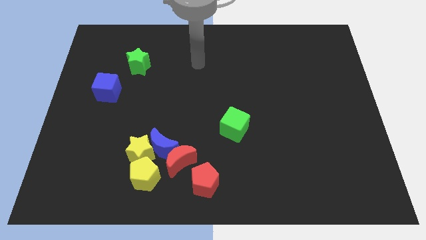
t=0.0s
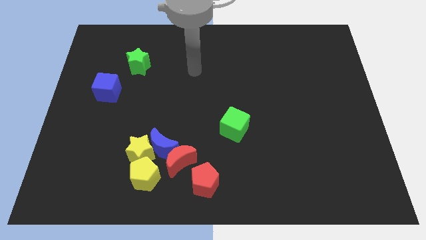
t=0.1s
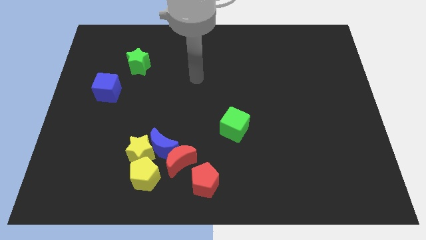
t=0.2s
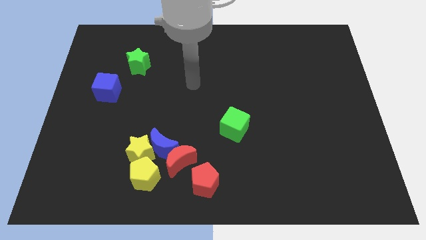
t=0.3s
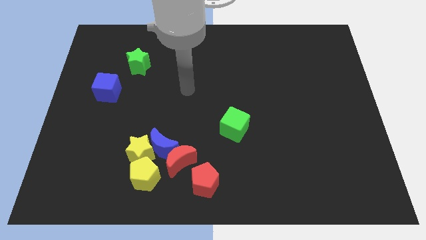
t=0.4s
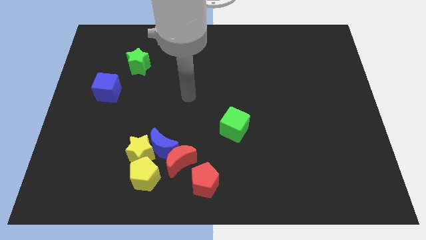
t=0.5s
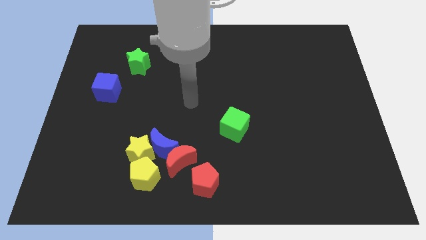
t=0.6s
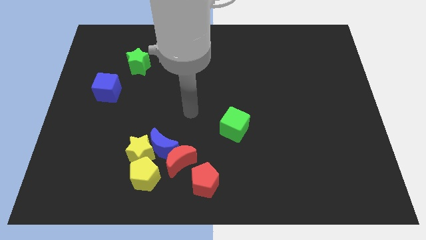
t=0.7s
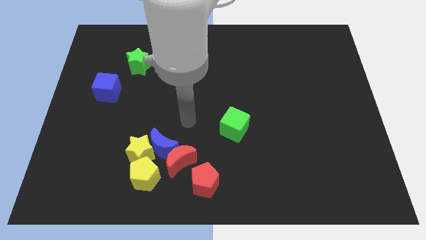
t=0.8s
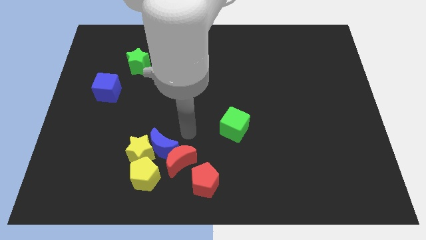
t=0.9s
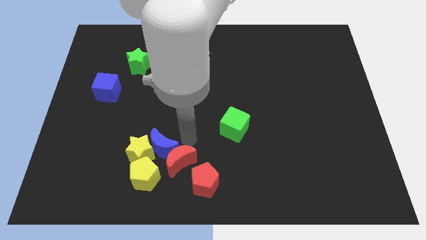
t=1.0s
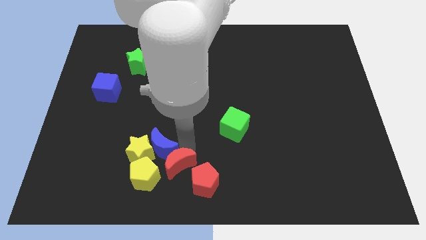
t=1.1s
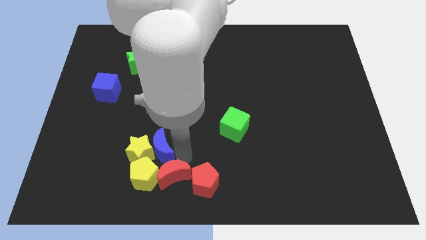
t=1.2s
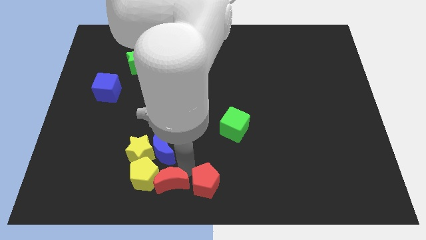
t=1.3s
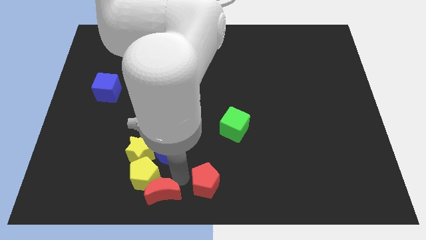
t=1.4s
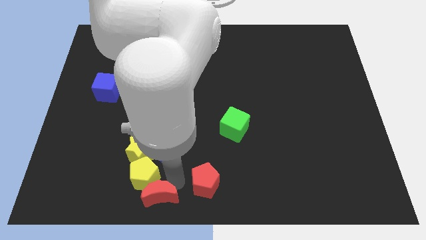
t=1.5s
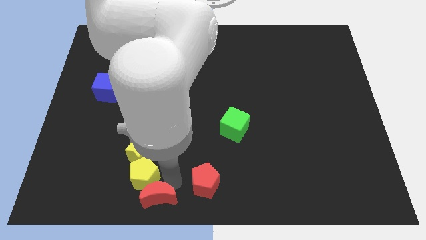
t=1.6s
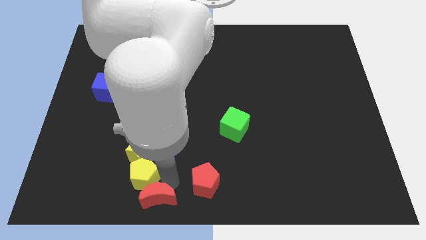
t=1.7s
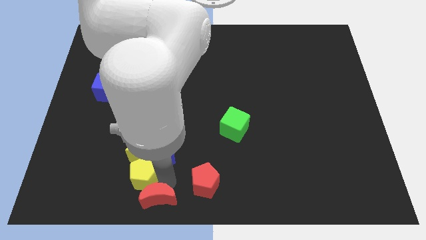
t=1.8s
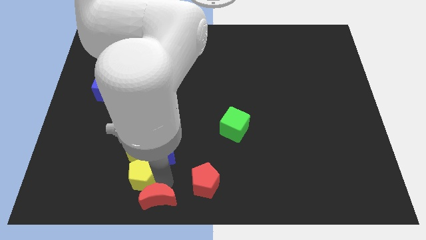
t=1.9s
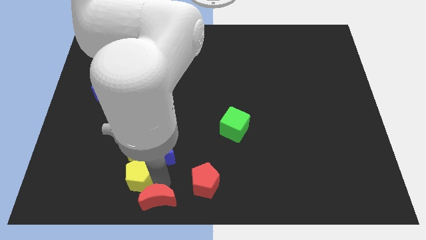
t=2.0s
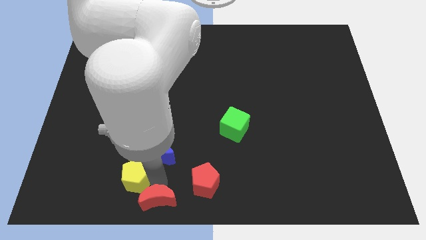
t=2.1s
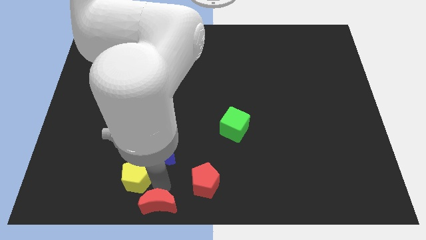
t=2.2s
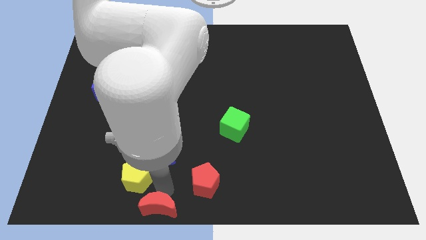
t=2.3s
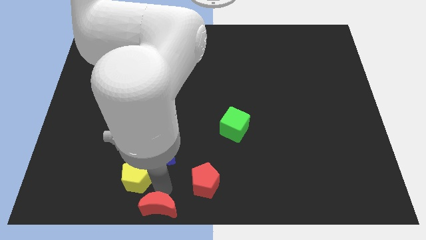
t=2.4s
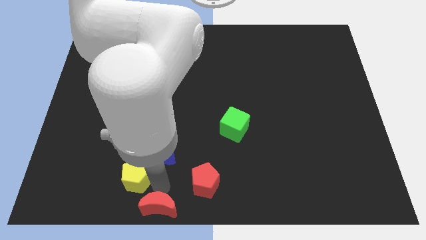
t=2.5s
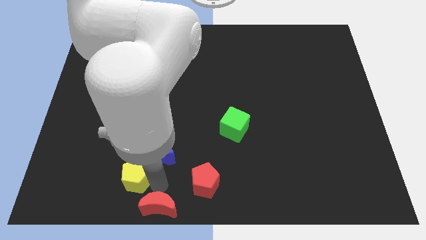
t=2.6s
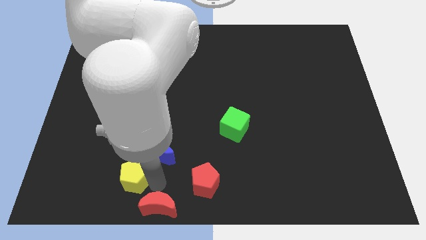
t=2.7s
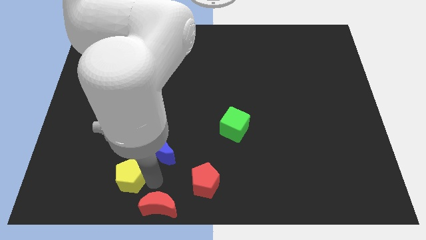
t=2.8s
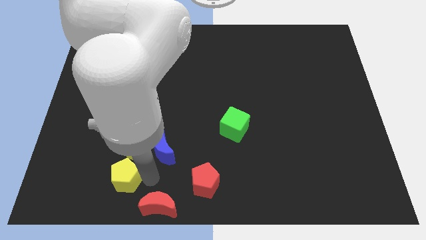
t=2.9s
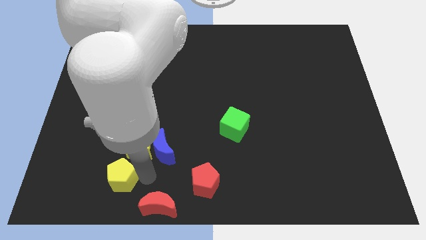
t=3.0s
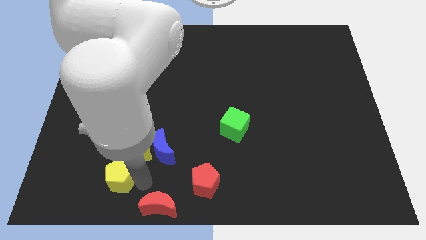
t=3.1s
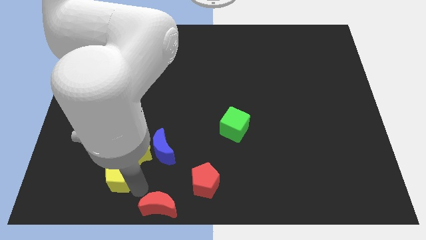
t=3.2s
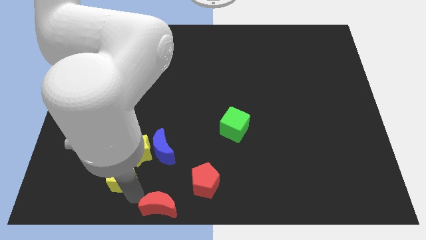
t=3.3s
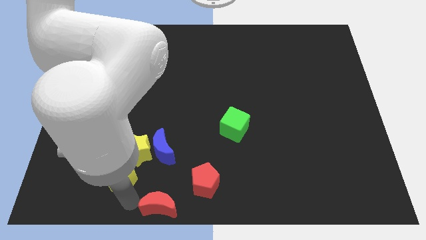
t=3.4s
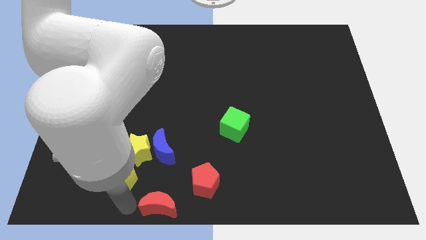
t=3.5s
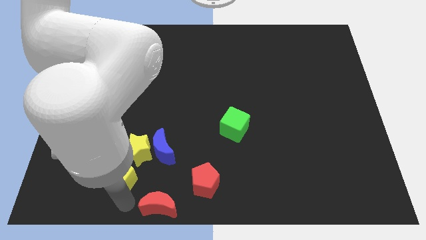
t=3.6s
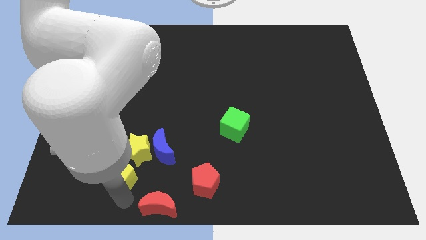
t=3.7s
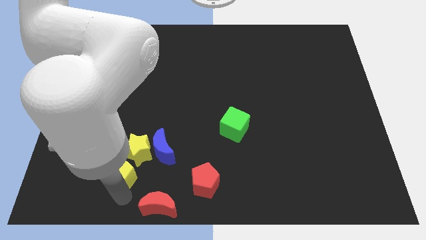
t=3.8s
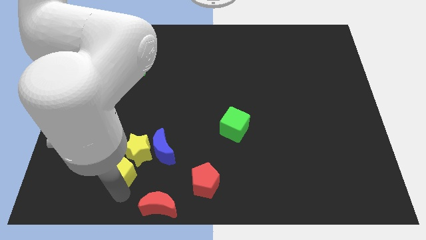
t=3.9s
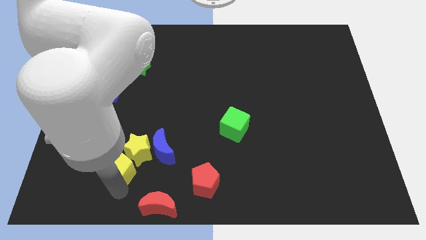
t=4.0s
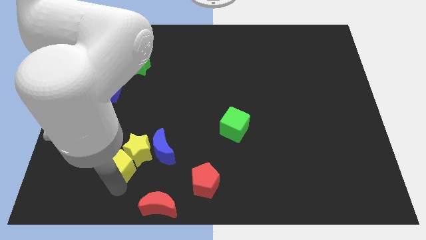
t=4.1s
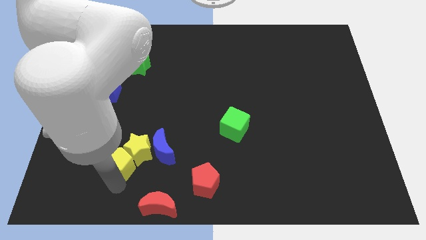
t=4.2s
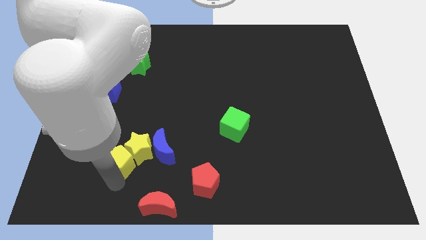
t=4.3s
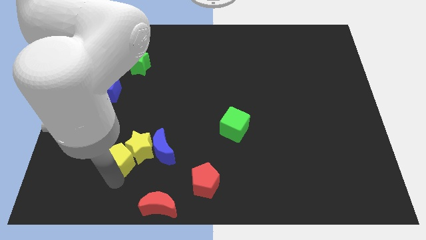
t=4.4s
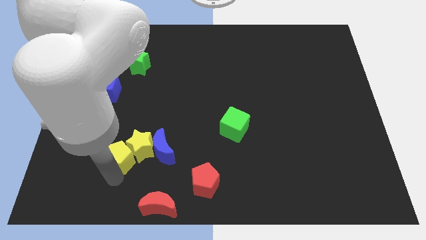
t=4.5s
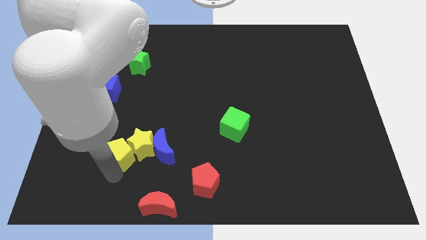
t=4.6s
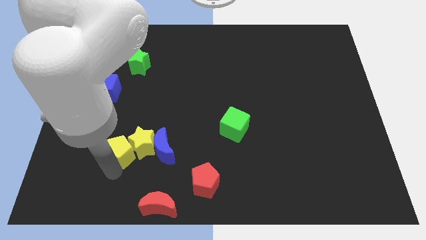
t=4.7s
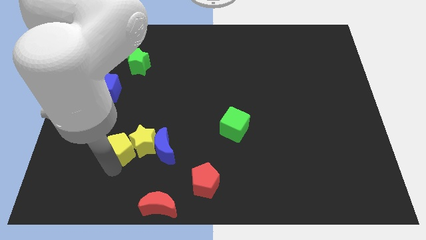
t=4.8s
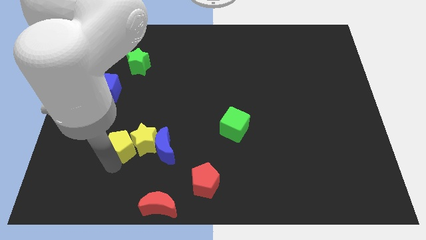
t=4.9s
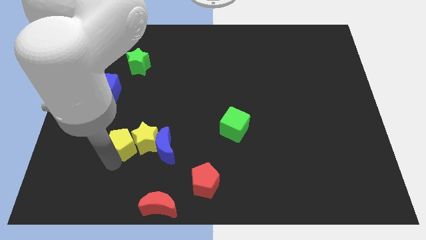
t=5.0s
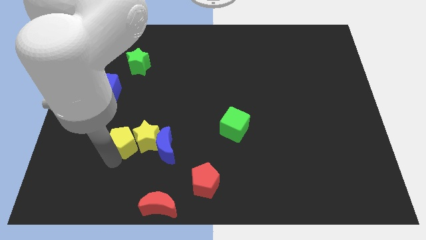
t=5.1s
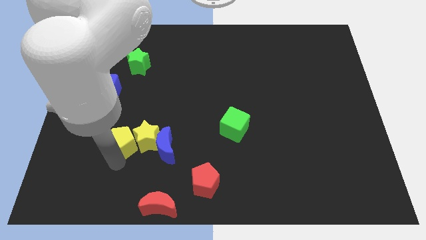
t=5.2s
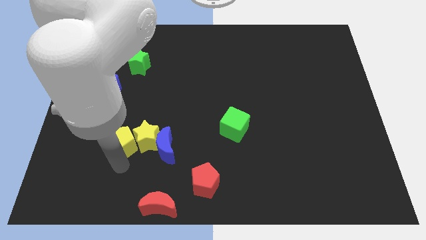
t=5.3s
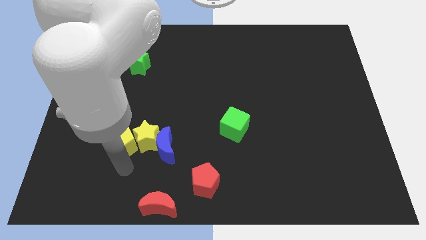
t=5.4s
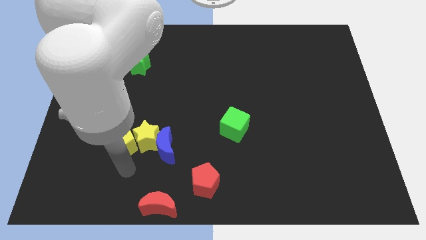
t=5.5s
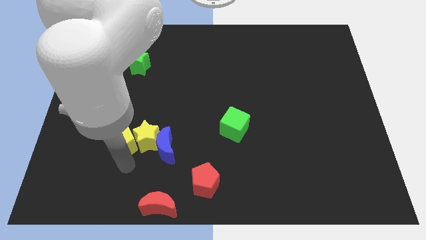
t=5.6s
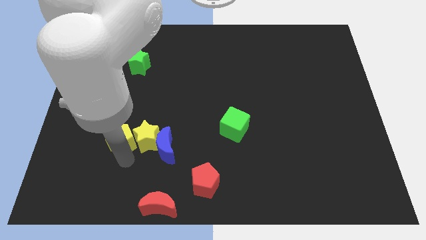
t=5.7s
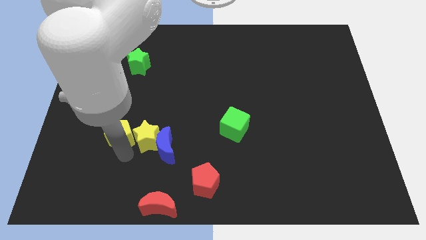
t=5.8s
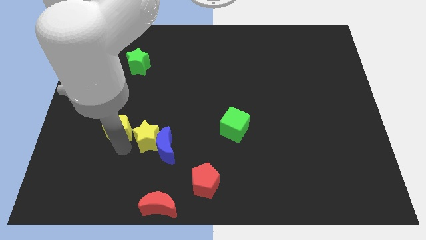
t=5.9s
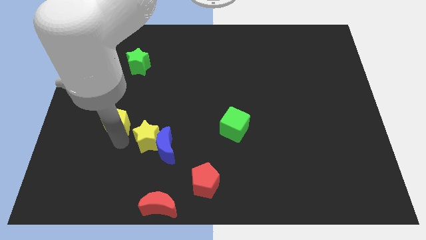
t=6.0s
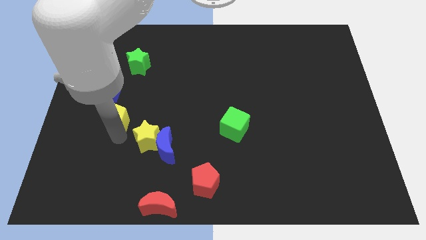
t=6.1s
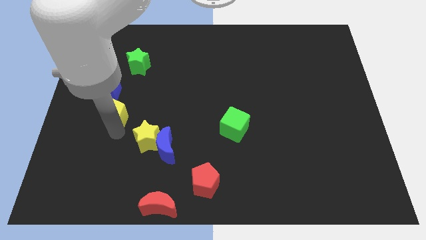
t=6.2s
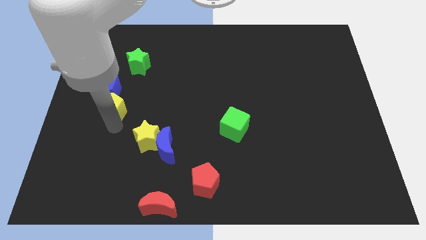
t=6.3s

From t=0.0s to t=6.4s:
push the yellow pentagon below the green star

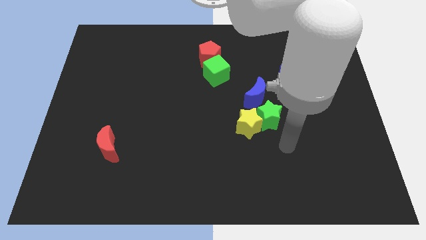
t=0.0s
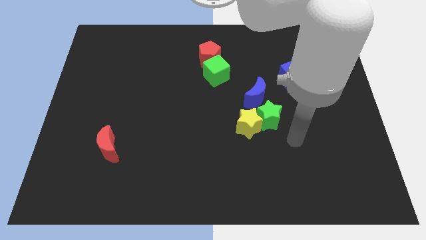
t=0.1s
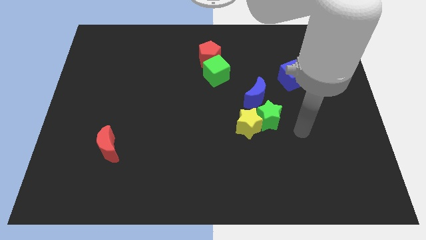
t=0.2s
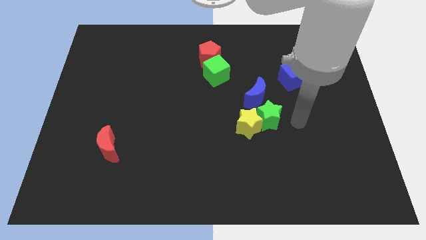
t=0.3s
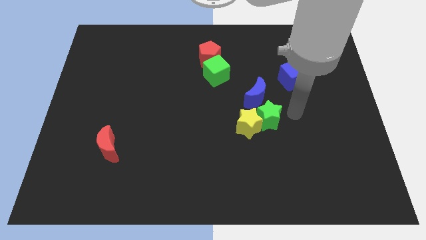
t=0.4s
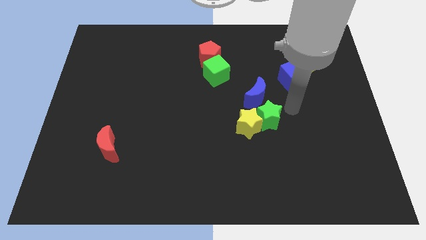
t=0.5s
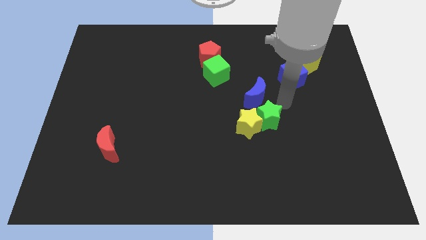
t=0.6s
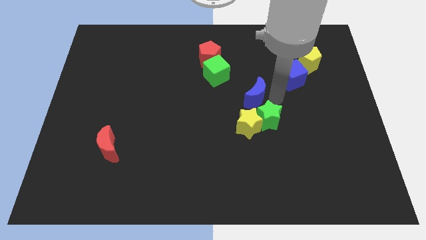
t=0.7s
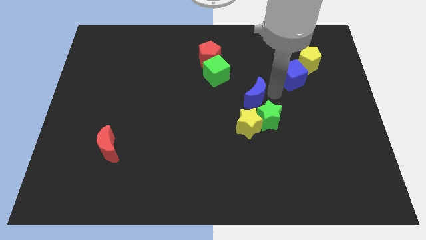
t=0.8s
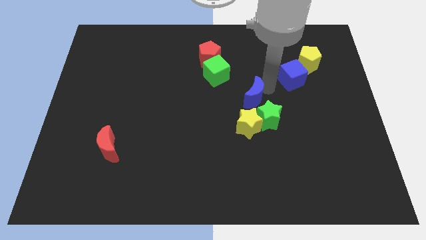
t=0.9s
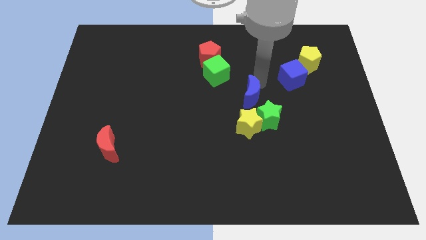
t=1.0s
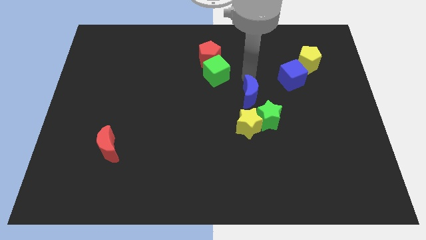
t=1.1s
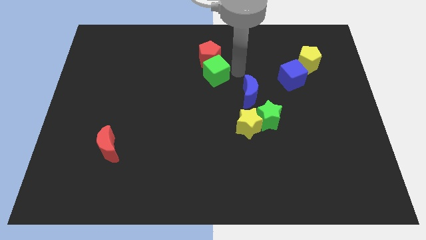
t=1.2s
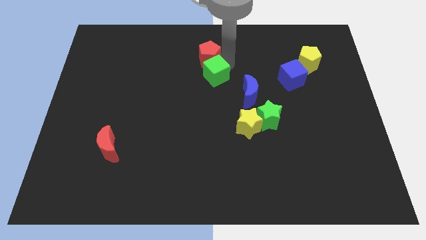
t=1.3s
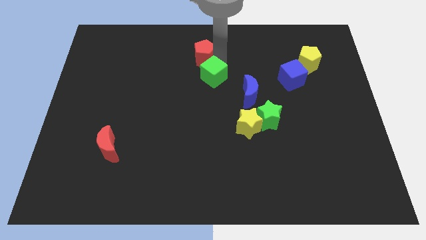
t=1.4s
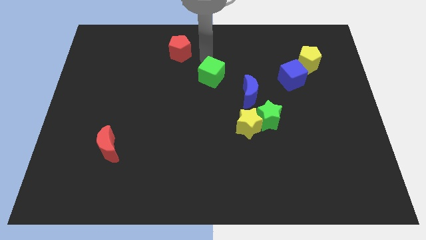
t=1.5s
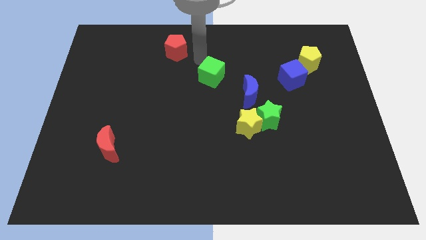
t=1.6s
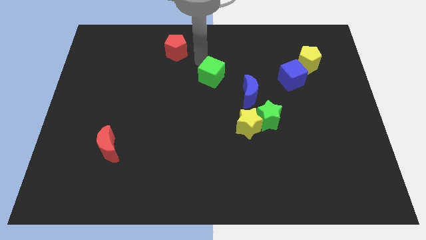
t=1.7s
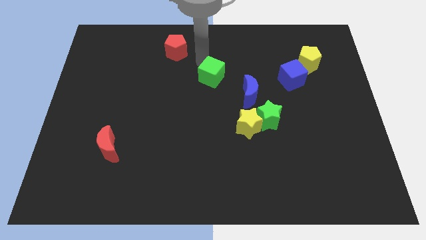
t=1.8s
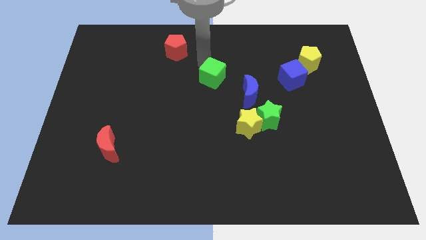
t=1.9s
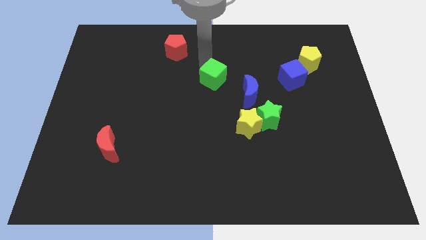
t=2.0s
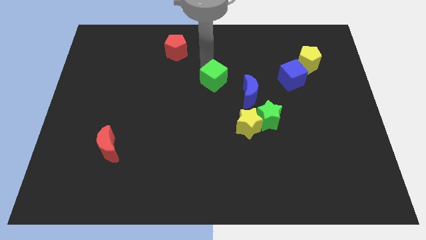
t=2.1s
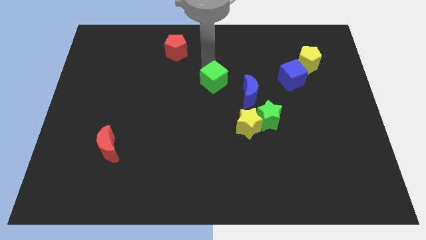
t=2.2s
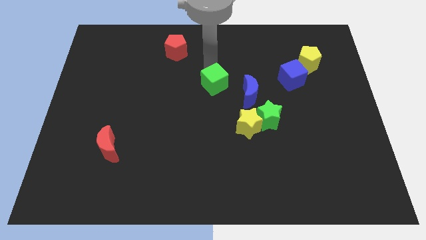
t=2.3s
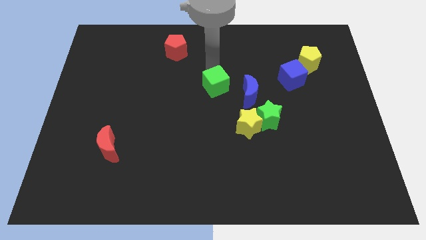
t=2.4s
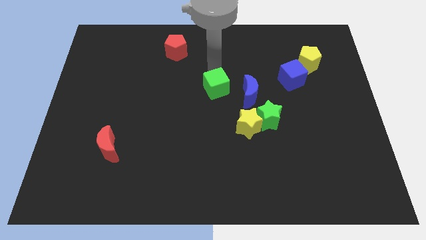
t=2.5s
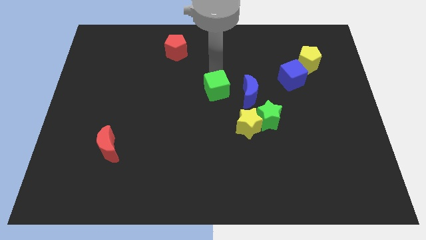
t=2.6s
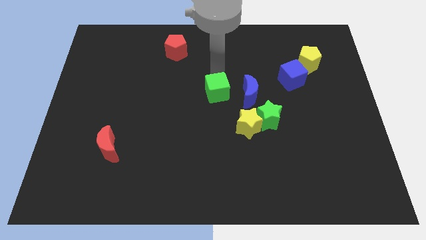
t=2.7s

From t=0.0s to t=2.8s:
put the green cube to the top left side of the yellow star
